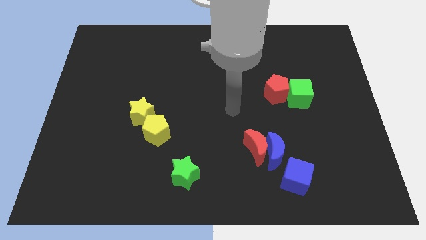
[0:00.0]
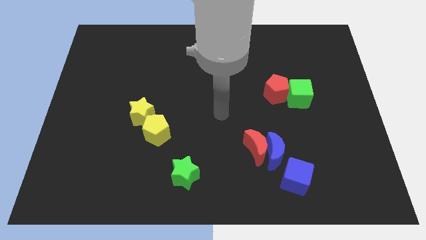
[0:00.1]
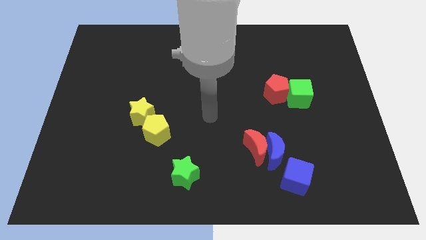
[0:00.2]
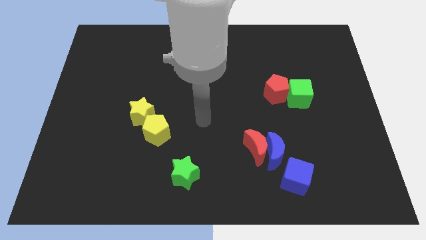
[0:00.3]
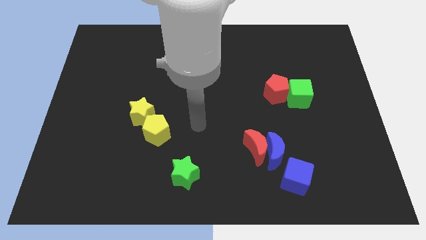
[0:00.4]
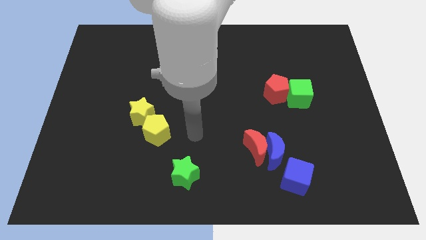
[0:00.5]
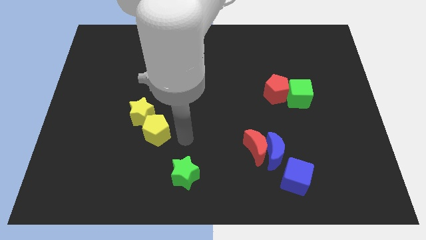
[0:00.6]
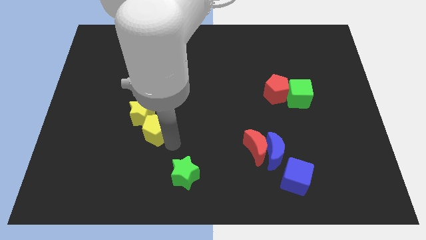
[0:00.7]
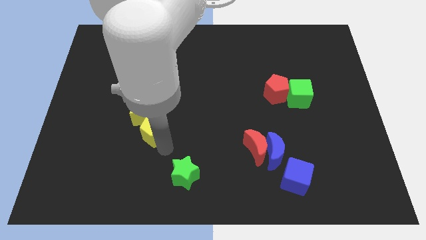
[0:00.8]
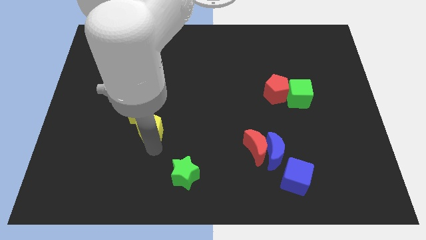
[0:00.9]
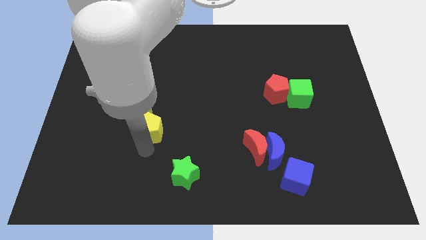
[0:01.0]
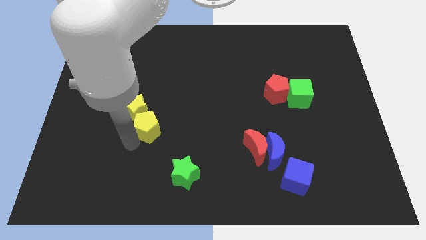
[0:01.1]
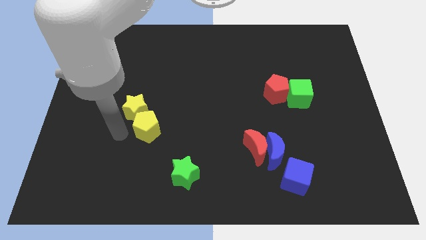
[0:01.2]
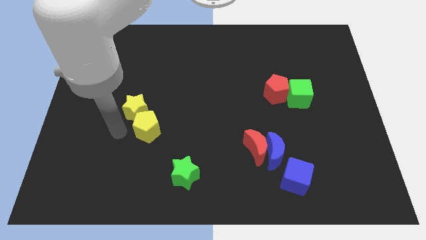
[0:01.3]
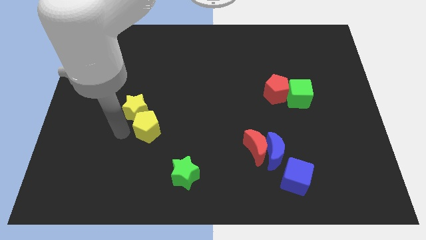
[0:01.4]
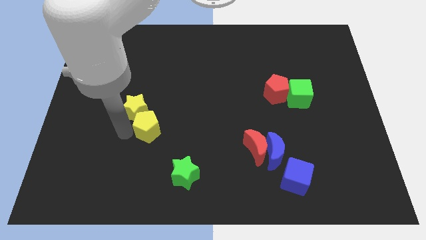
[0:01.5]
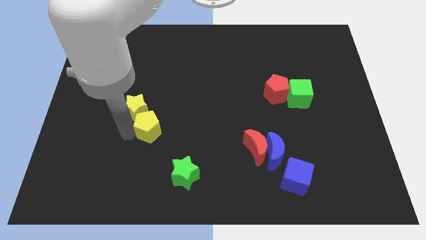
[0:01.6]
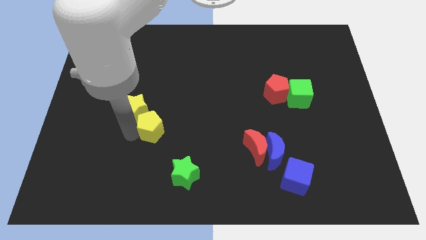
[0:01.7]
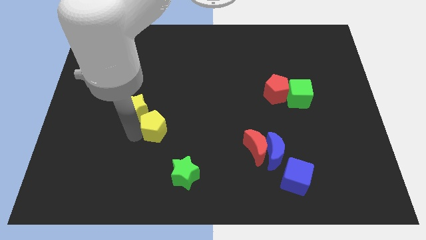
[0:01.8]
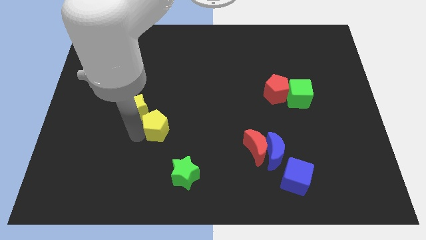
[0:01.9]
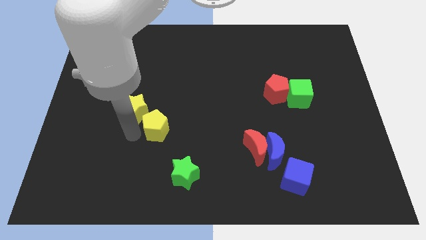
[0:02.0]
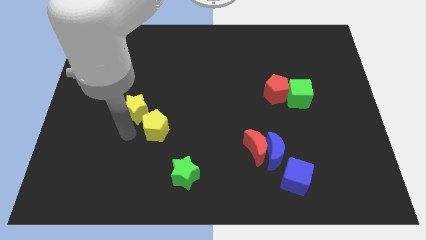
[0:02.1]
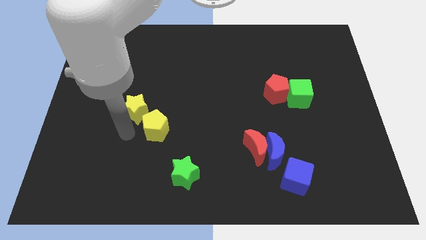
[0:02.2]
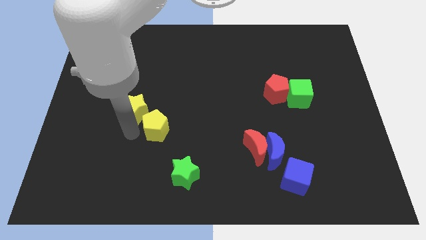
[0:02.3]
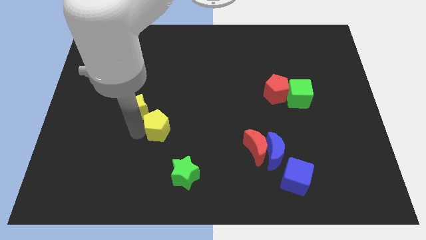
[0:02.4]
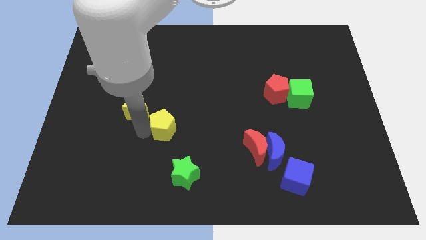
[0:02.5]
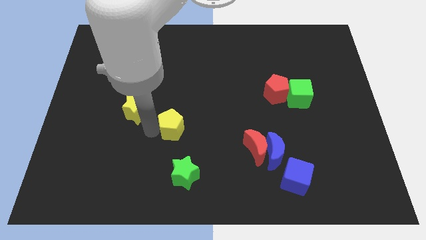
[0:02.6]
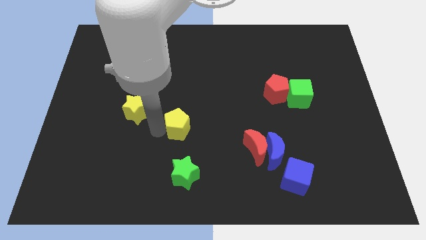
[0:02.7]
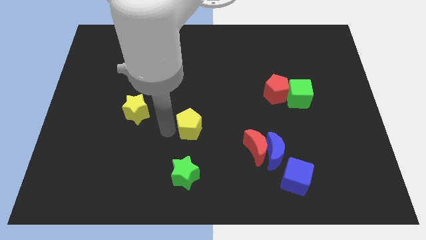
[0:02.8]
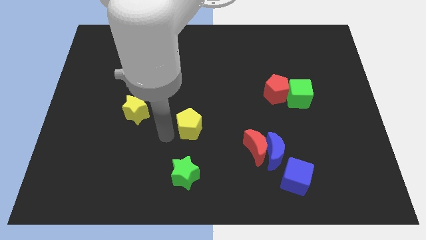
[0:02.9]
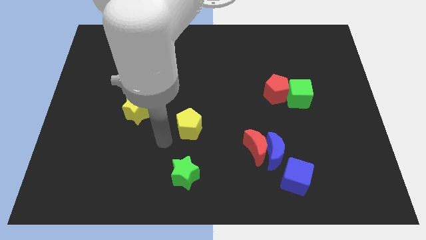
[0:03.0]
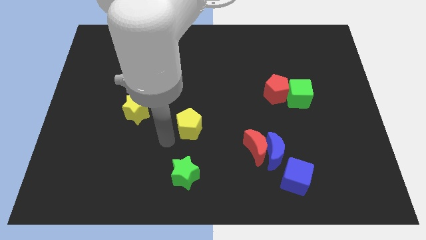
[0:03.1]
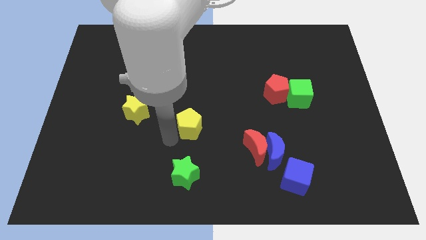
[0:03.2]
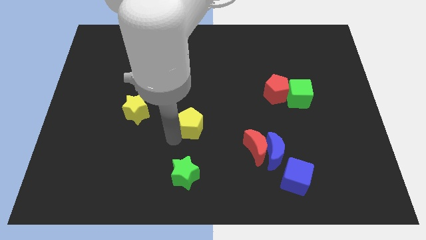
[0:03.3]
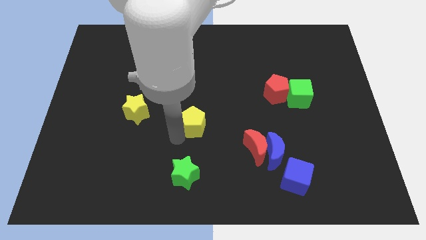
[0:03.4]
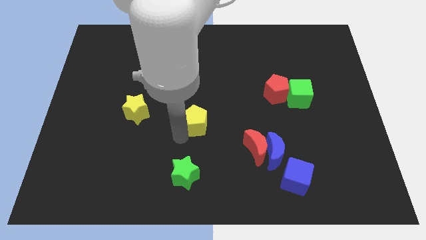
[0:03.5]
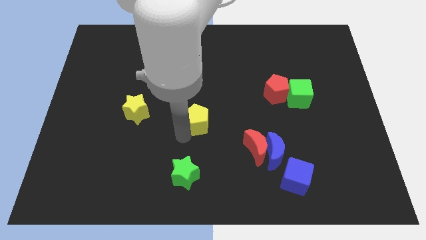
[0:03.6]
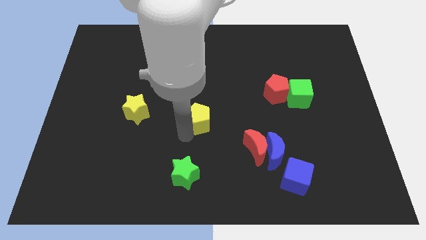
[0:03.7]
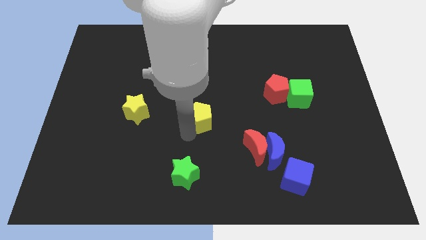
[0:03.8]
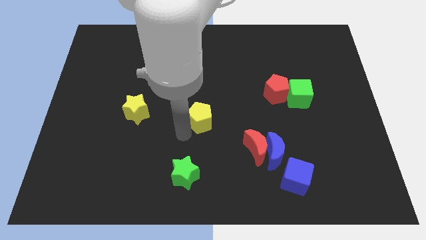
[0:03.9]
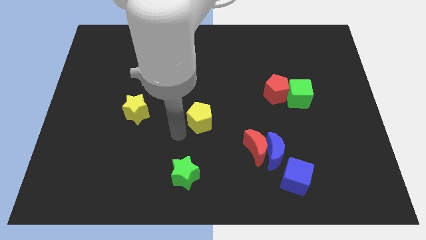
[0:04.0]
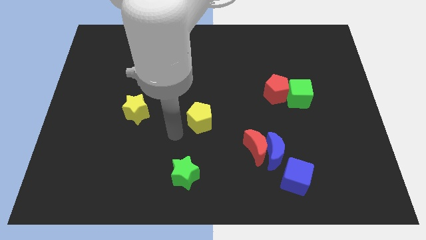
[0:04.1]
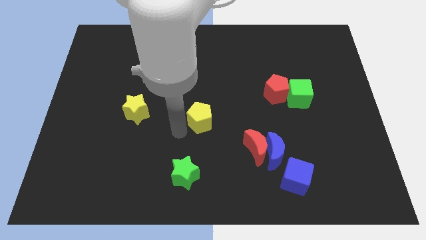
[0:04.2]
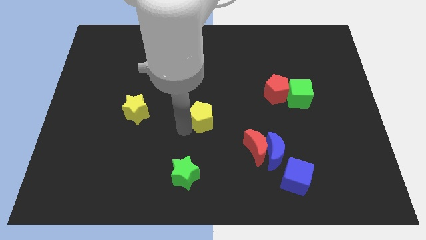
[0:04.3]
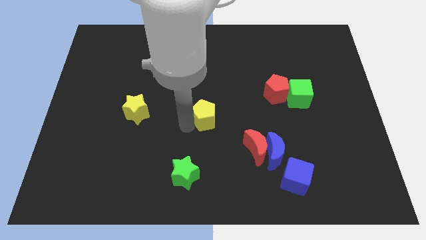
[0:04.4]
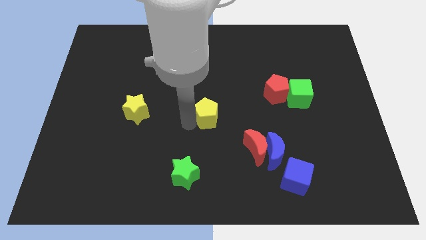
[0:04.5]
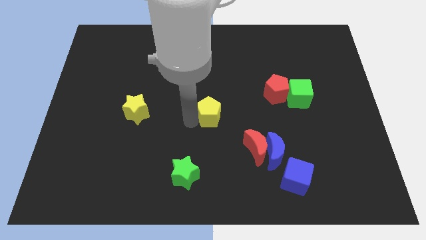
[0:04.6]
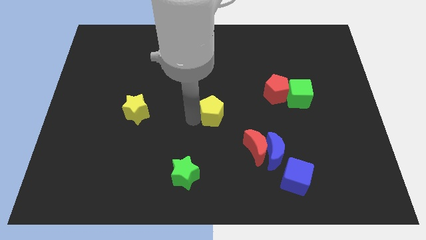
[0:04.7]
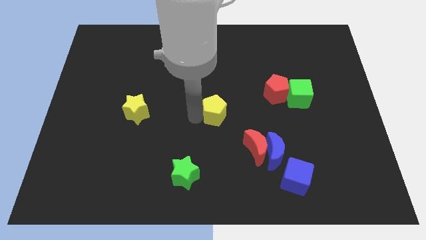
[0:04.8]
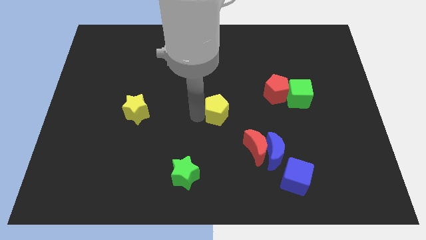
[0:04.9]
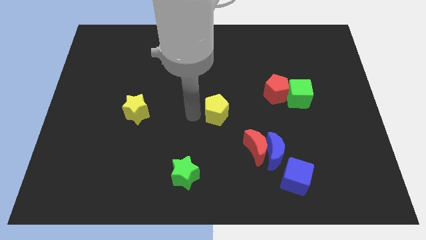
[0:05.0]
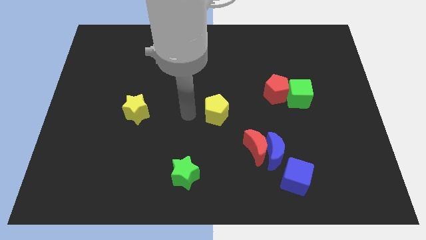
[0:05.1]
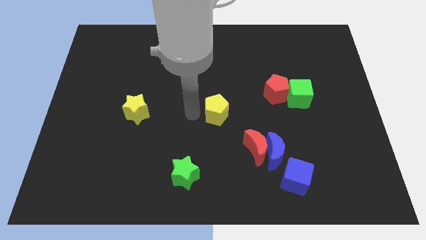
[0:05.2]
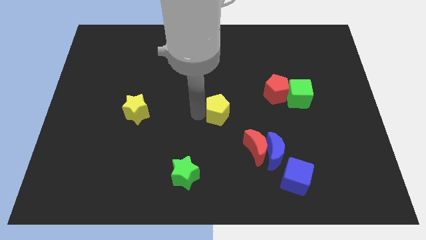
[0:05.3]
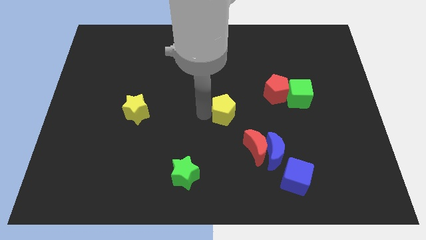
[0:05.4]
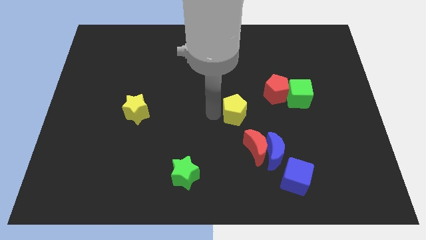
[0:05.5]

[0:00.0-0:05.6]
push the yellow pentagon to the bottom left side of the red pentagon

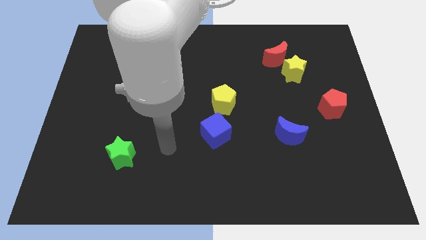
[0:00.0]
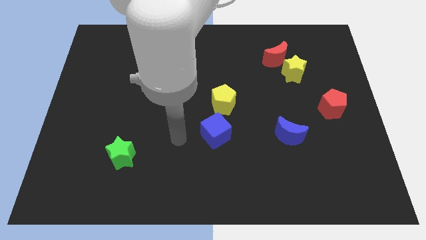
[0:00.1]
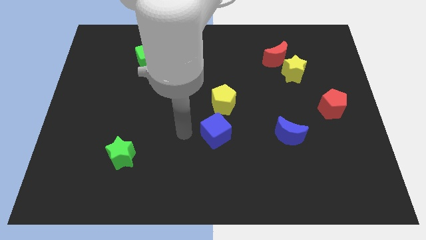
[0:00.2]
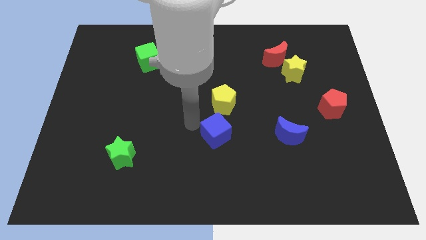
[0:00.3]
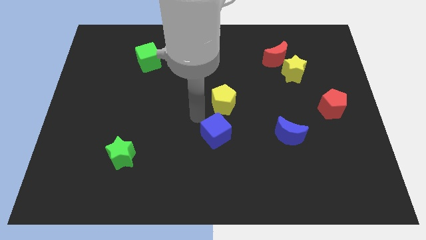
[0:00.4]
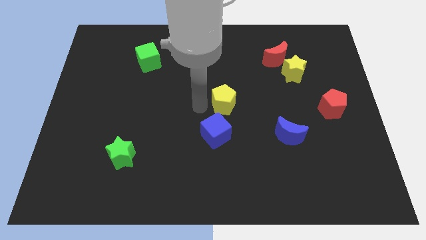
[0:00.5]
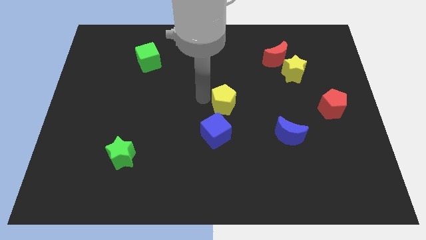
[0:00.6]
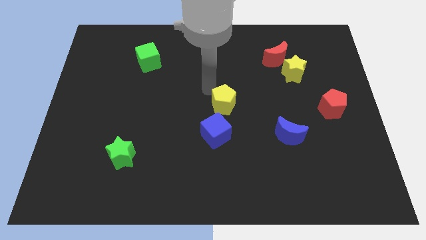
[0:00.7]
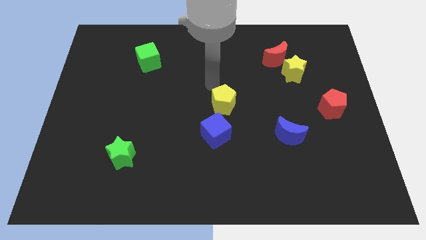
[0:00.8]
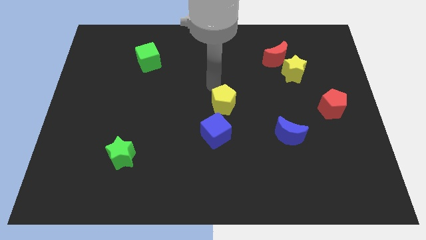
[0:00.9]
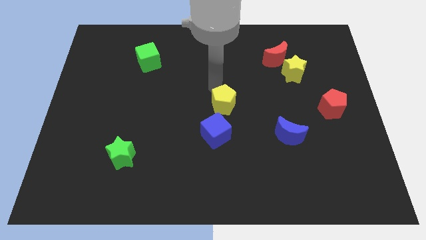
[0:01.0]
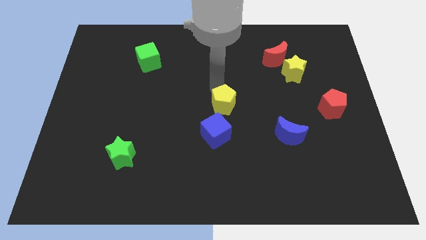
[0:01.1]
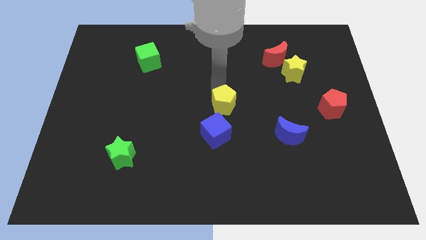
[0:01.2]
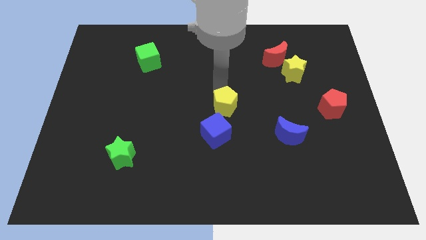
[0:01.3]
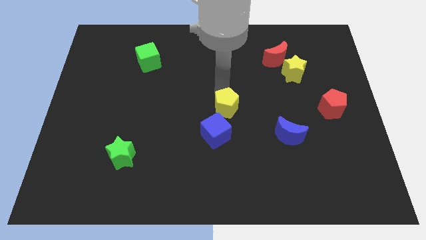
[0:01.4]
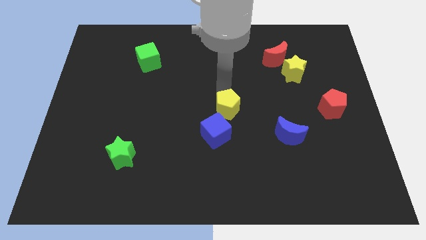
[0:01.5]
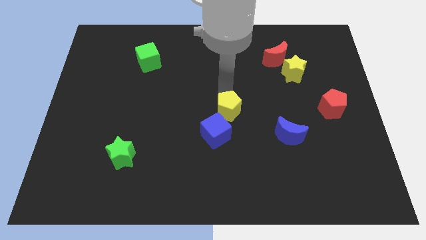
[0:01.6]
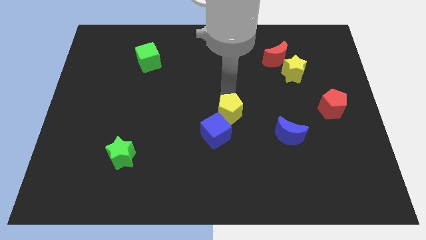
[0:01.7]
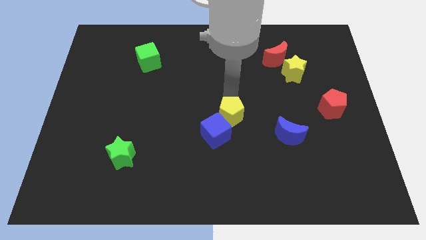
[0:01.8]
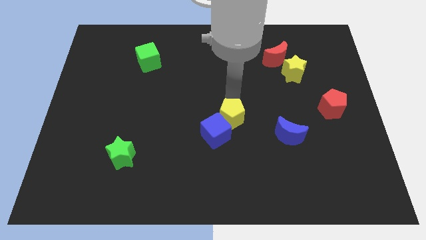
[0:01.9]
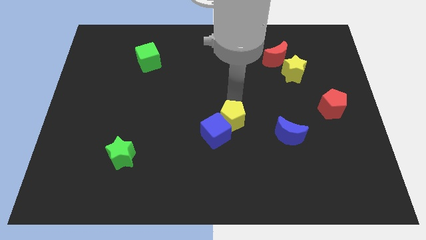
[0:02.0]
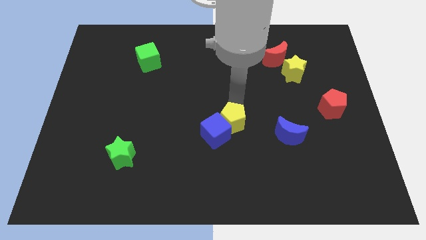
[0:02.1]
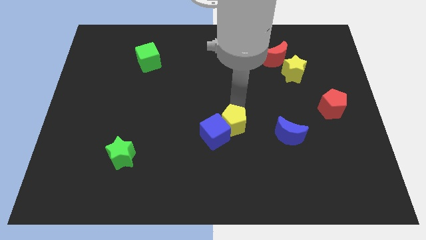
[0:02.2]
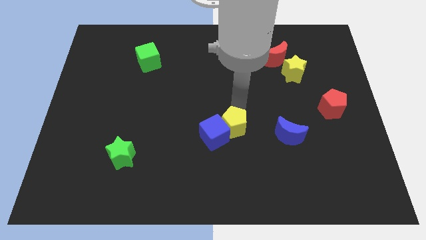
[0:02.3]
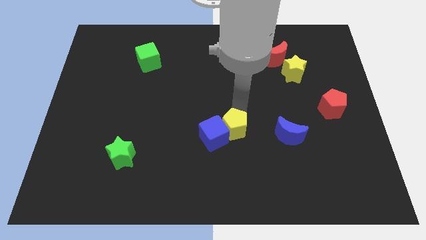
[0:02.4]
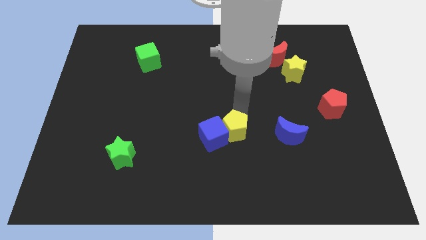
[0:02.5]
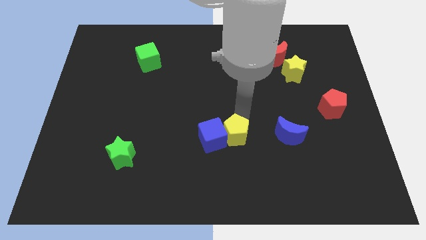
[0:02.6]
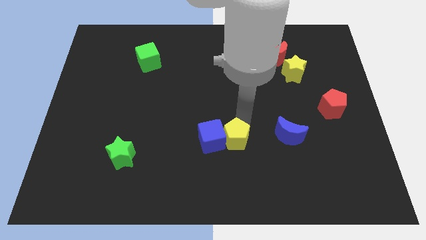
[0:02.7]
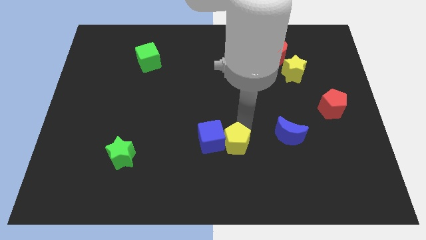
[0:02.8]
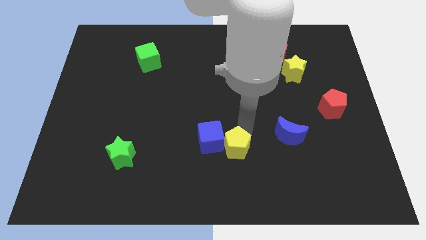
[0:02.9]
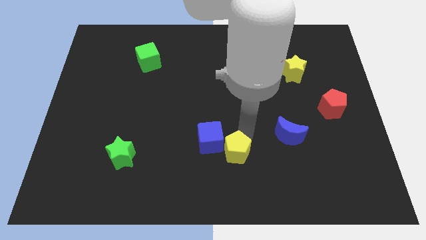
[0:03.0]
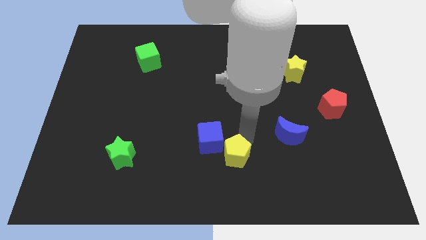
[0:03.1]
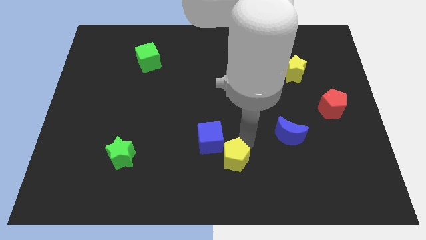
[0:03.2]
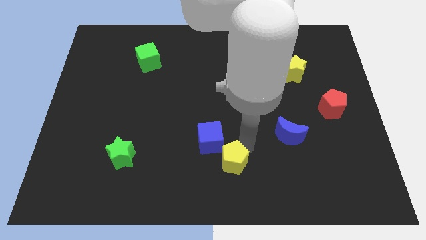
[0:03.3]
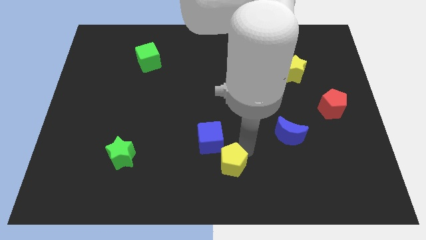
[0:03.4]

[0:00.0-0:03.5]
slide the yellow pentagon to the bottom of the blue cube
